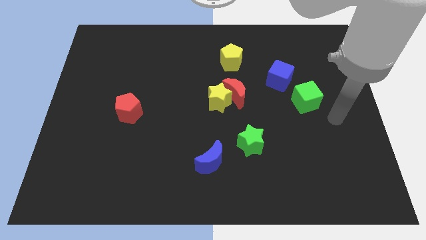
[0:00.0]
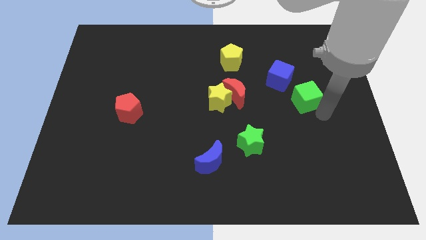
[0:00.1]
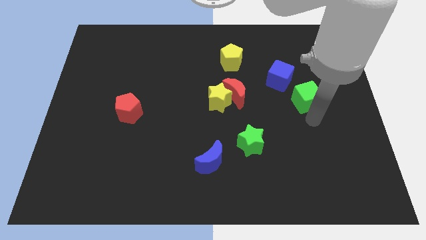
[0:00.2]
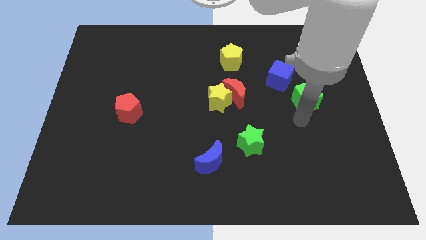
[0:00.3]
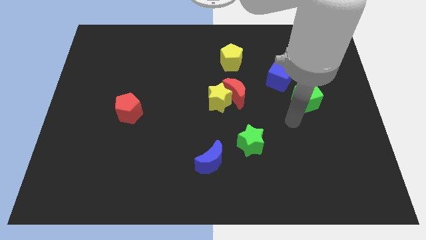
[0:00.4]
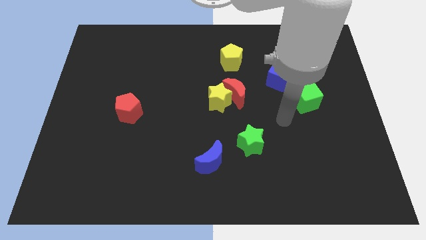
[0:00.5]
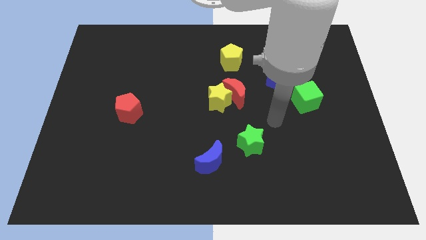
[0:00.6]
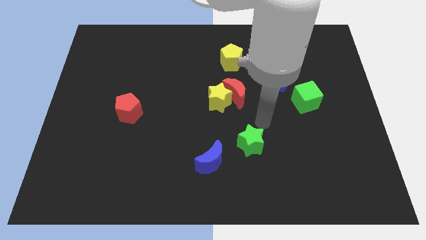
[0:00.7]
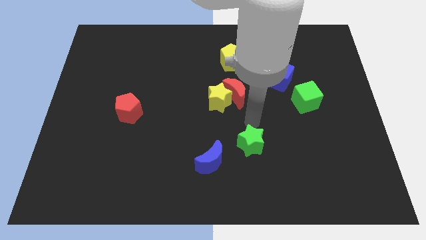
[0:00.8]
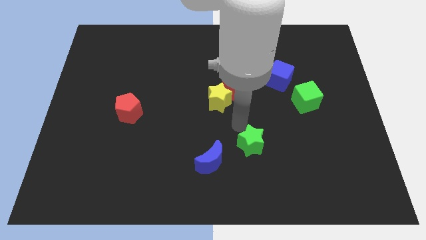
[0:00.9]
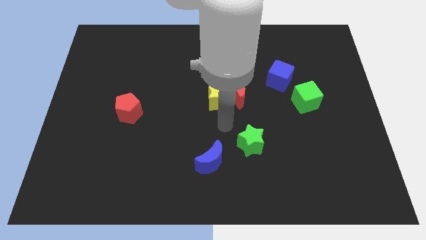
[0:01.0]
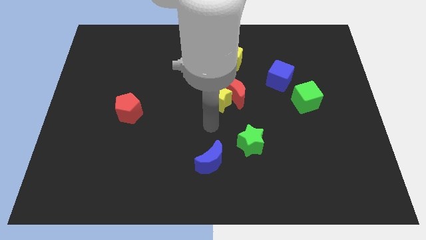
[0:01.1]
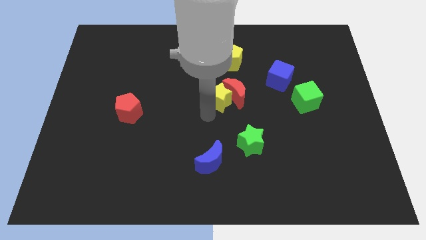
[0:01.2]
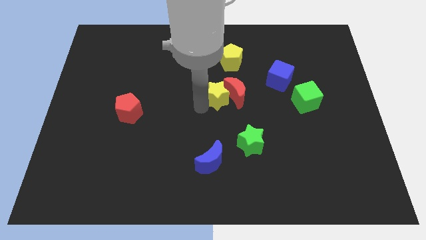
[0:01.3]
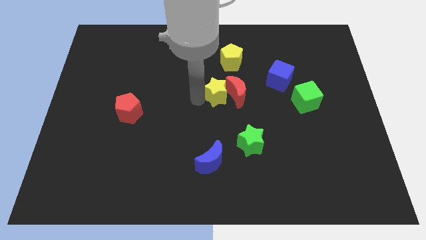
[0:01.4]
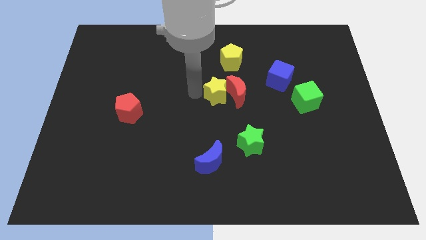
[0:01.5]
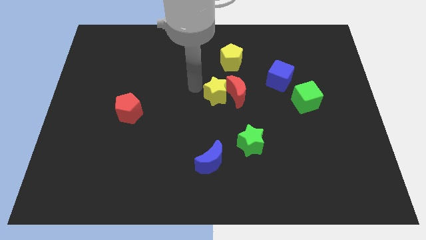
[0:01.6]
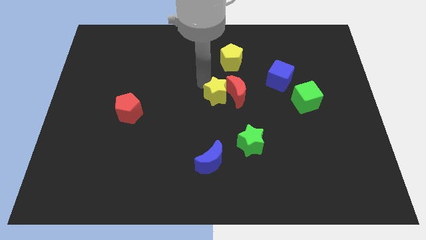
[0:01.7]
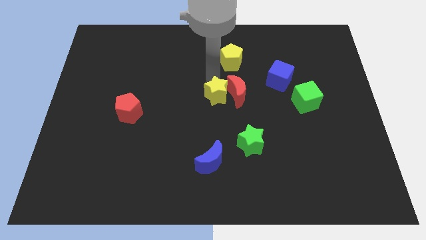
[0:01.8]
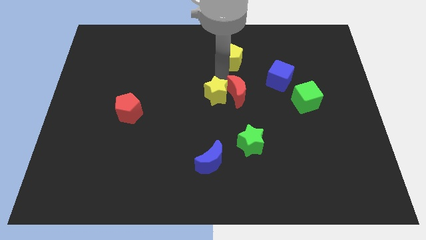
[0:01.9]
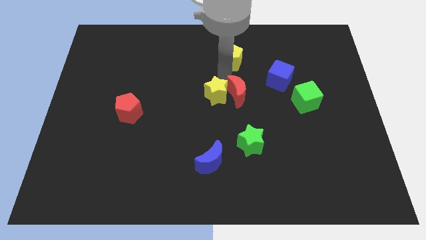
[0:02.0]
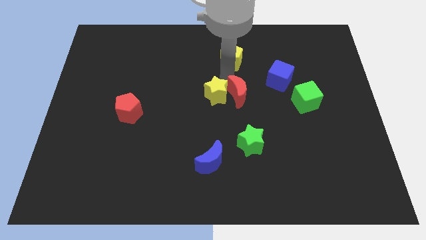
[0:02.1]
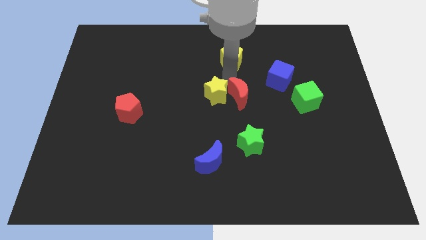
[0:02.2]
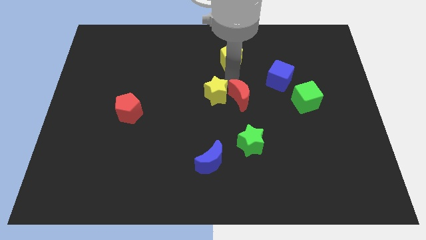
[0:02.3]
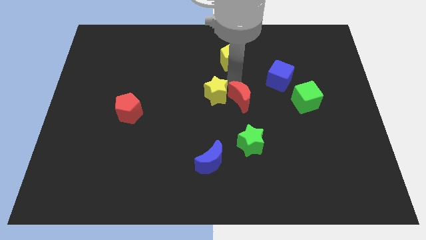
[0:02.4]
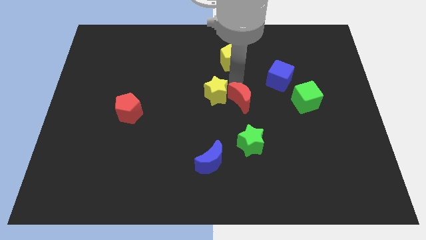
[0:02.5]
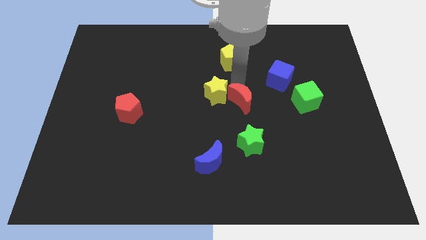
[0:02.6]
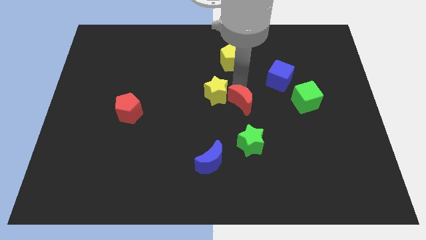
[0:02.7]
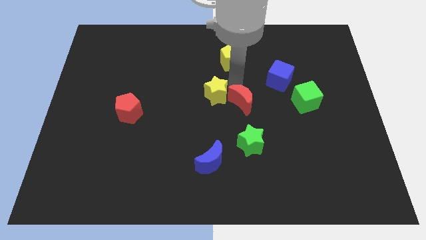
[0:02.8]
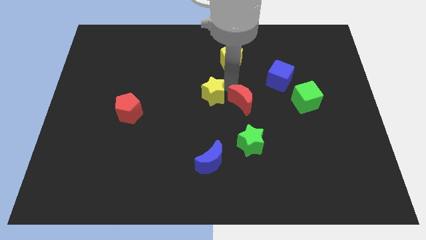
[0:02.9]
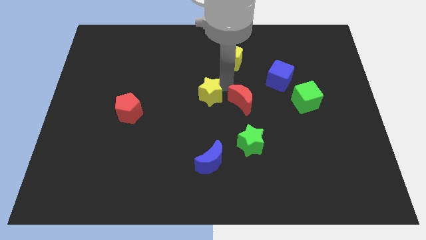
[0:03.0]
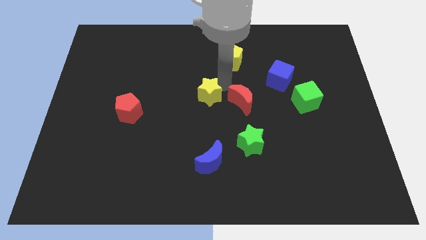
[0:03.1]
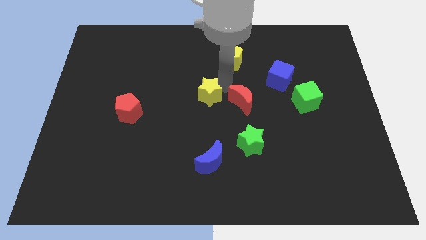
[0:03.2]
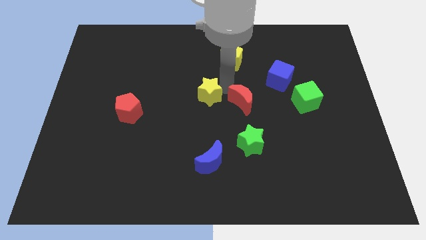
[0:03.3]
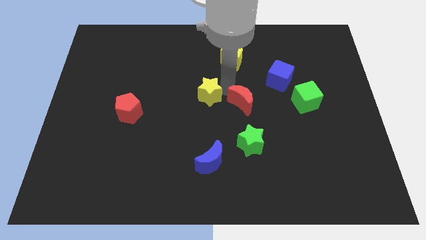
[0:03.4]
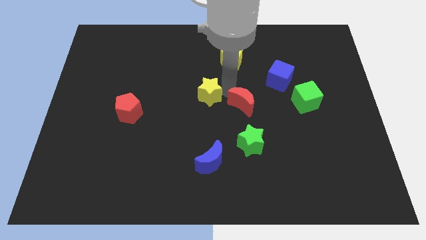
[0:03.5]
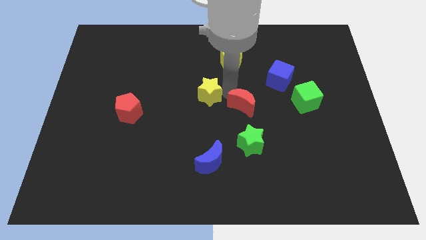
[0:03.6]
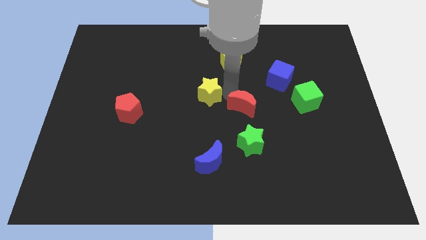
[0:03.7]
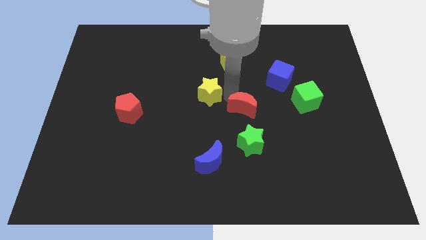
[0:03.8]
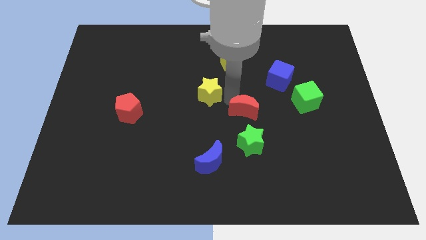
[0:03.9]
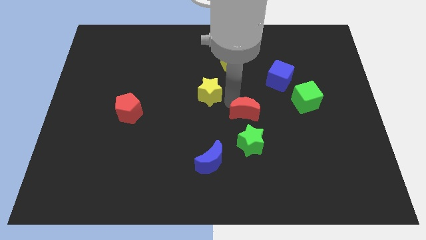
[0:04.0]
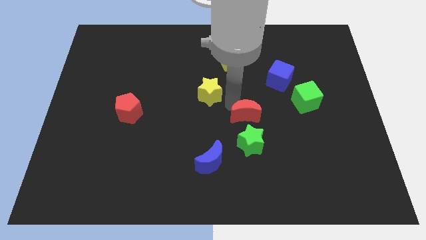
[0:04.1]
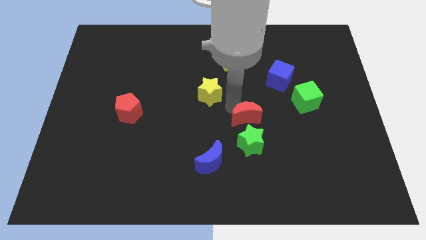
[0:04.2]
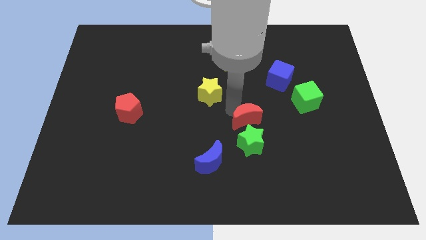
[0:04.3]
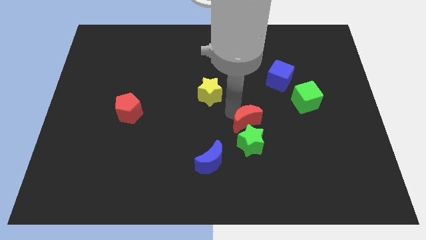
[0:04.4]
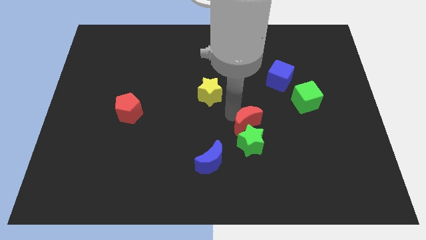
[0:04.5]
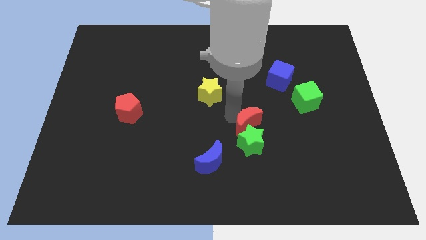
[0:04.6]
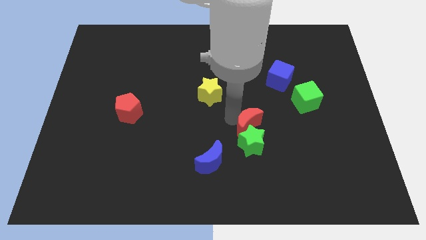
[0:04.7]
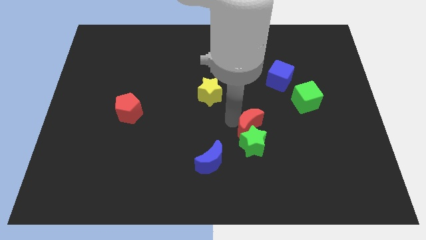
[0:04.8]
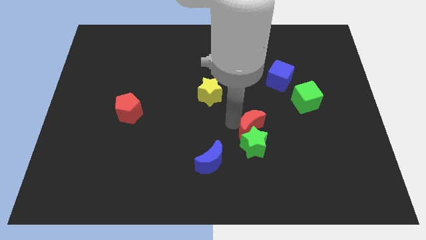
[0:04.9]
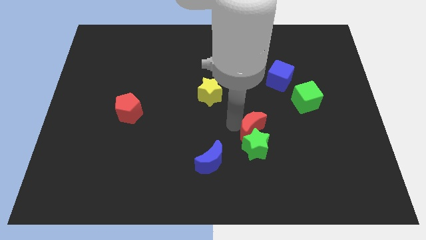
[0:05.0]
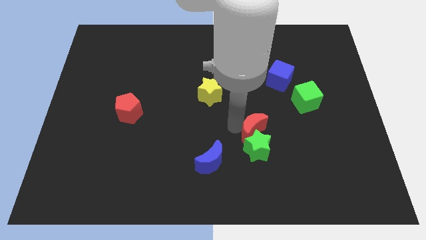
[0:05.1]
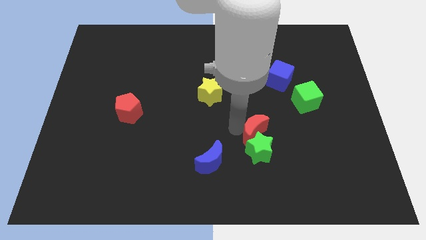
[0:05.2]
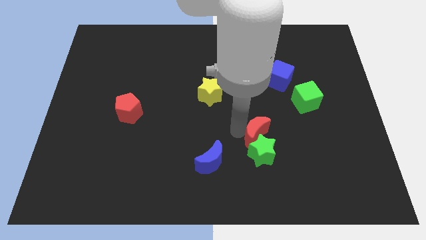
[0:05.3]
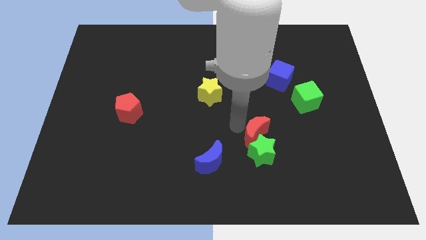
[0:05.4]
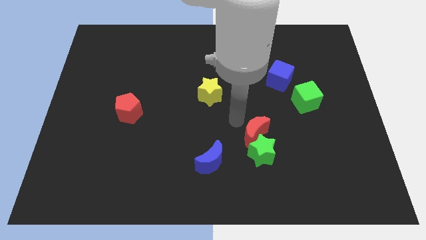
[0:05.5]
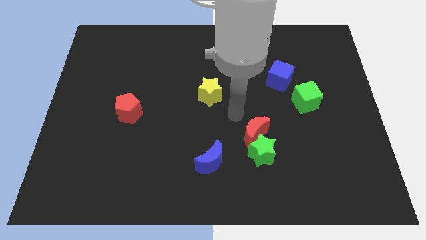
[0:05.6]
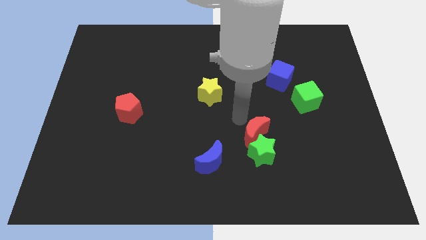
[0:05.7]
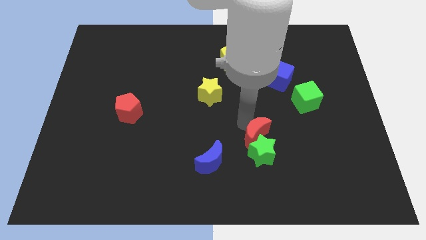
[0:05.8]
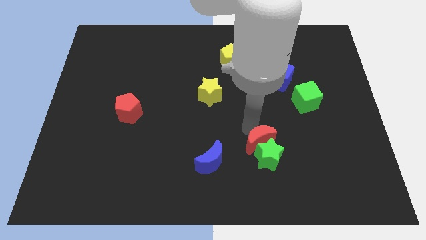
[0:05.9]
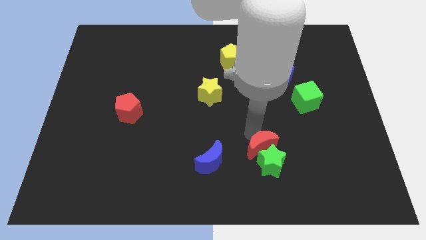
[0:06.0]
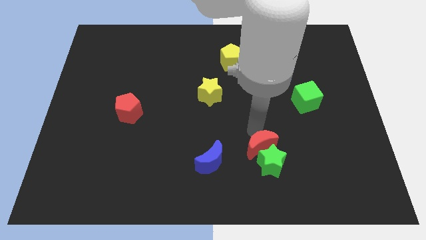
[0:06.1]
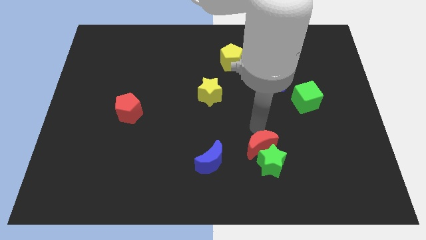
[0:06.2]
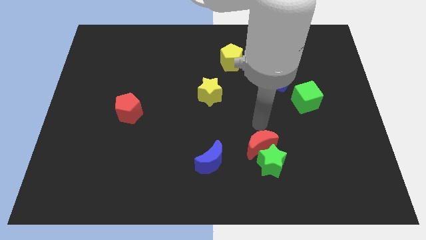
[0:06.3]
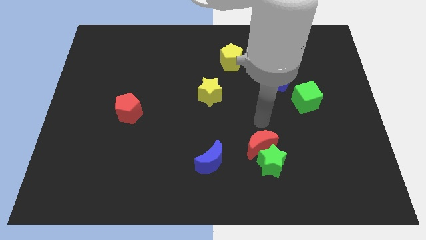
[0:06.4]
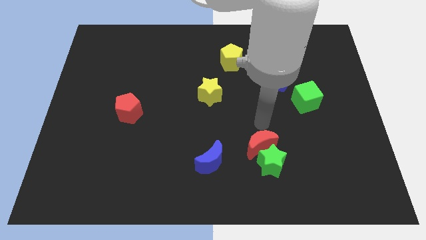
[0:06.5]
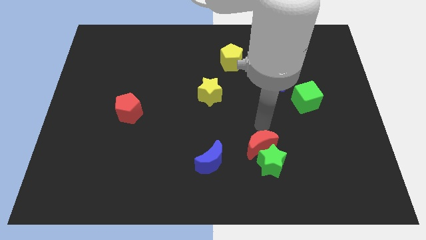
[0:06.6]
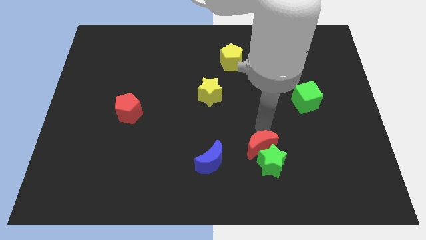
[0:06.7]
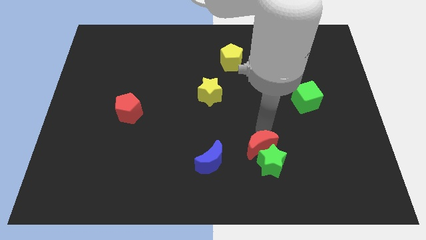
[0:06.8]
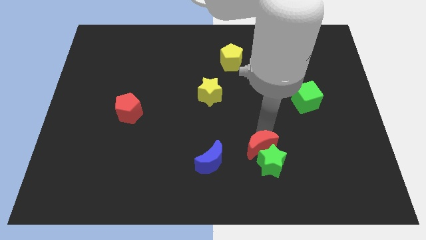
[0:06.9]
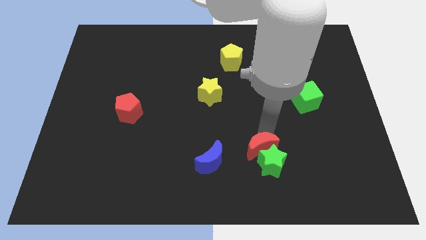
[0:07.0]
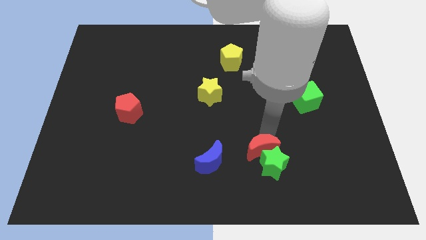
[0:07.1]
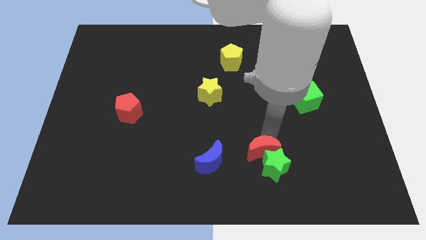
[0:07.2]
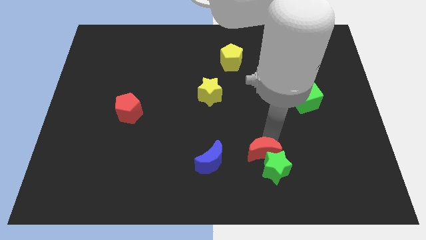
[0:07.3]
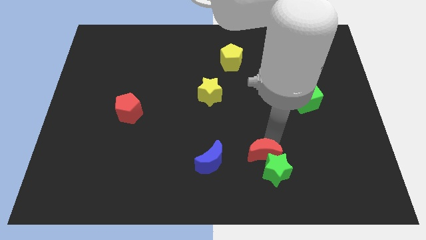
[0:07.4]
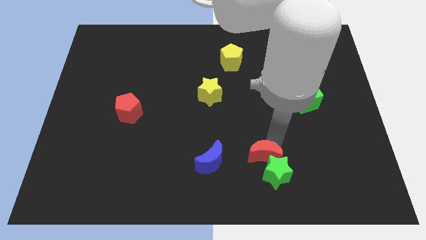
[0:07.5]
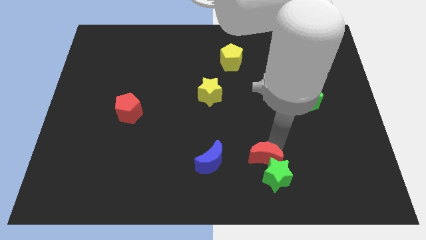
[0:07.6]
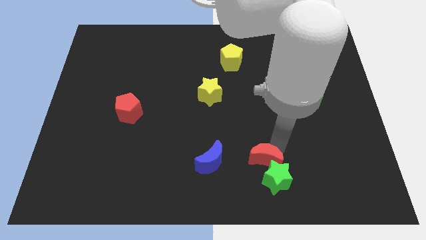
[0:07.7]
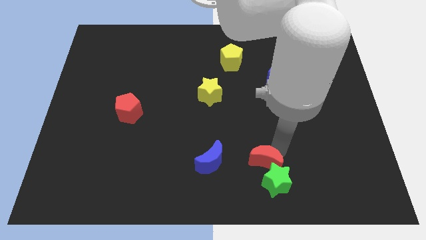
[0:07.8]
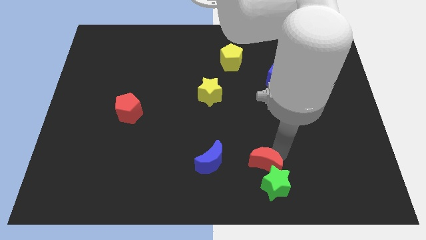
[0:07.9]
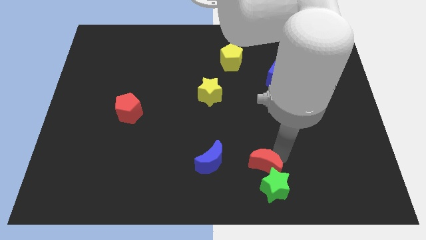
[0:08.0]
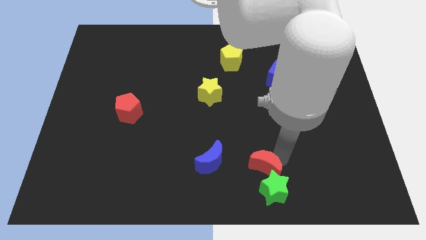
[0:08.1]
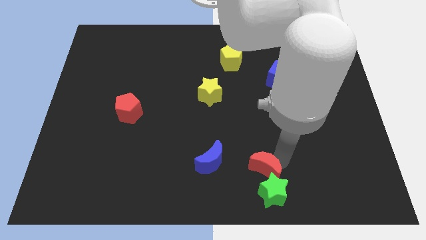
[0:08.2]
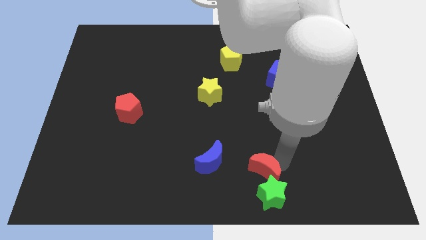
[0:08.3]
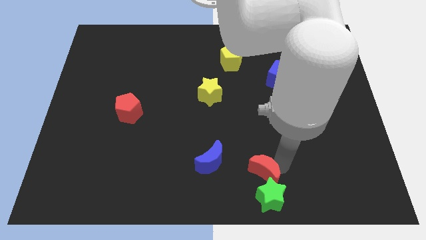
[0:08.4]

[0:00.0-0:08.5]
slide the red moon to the bottom side
